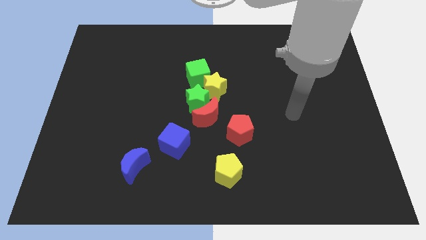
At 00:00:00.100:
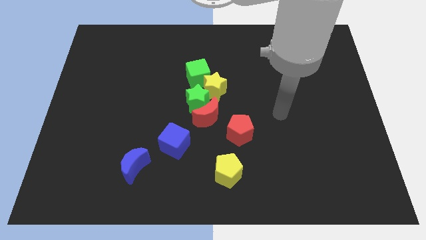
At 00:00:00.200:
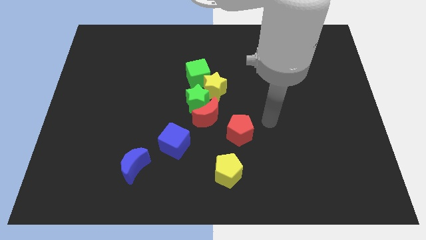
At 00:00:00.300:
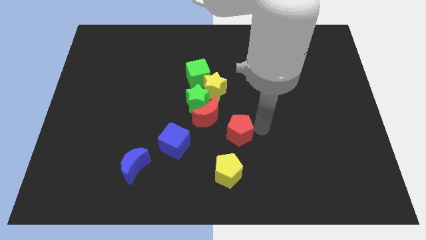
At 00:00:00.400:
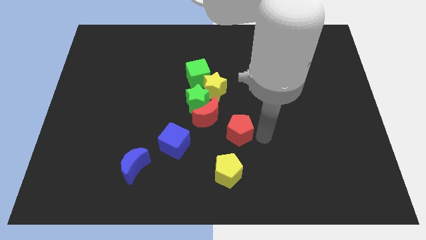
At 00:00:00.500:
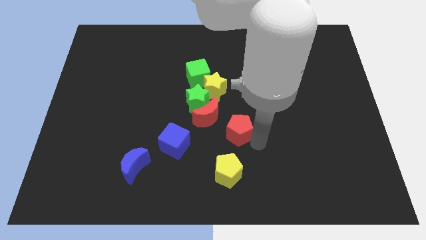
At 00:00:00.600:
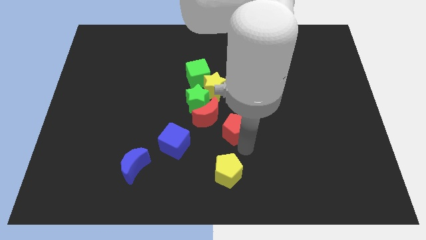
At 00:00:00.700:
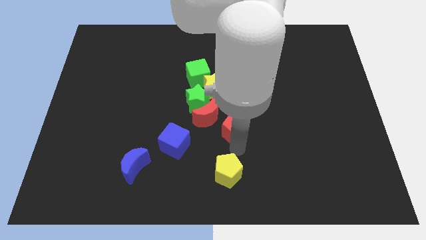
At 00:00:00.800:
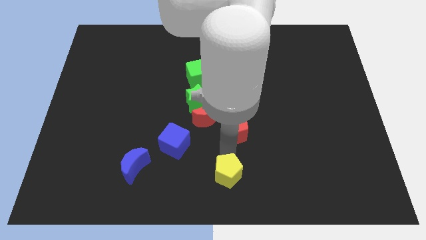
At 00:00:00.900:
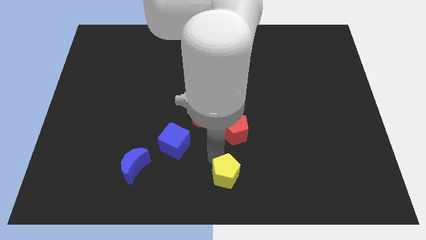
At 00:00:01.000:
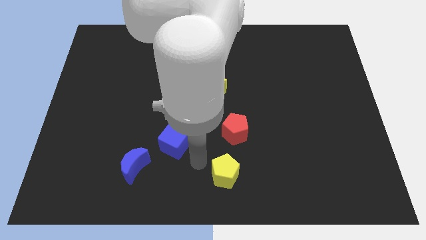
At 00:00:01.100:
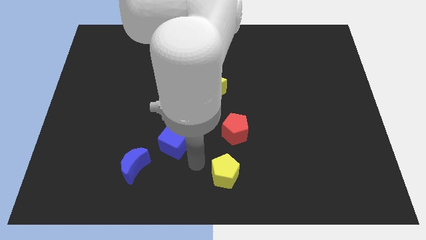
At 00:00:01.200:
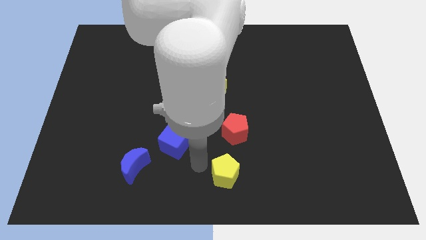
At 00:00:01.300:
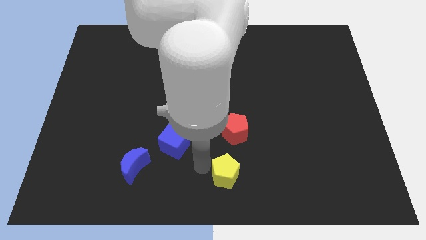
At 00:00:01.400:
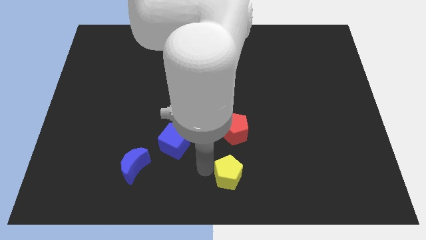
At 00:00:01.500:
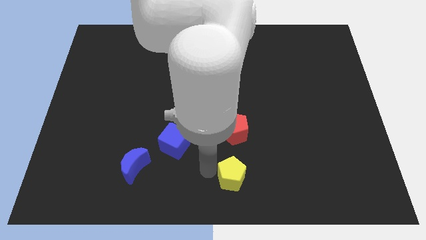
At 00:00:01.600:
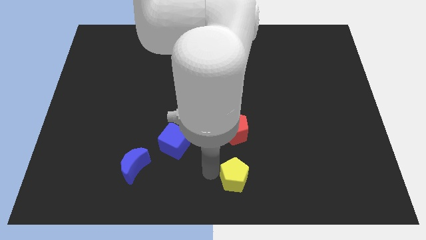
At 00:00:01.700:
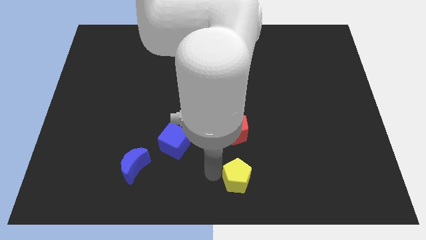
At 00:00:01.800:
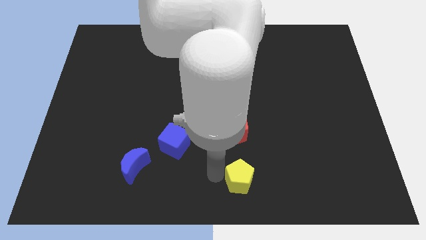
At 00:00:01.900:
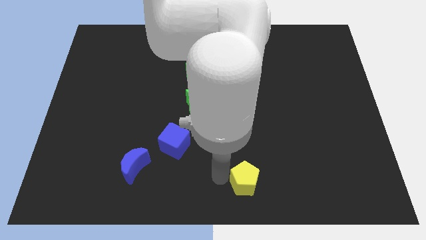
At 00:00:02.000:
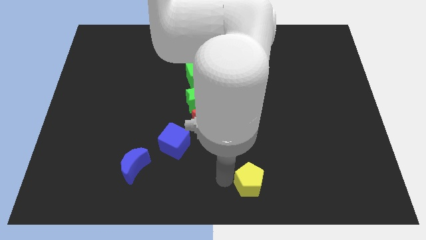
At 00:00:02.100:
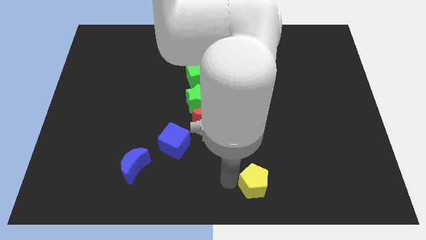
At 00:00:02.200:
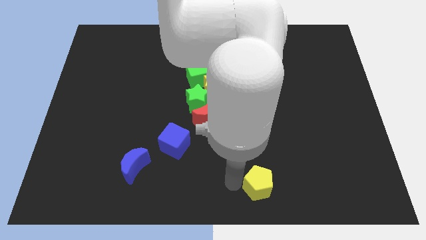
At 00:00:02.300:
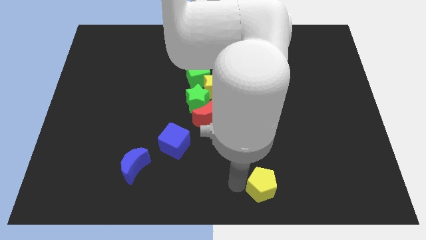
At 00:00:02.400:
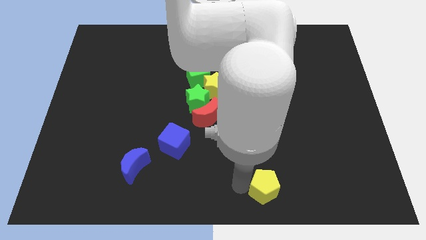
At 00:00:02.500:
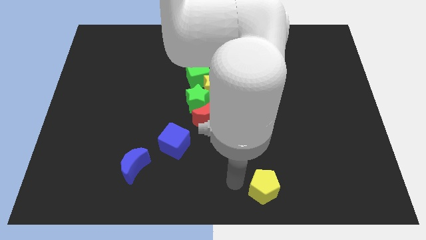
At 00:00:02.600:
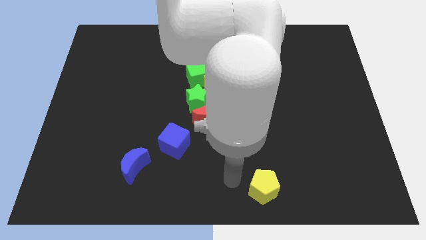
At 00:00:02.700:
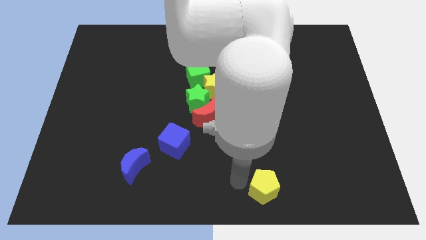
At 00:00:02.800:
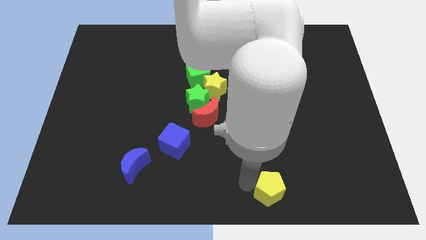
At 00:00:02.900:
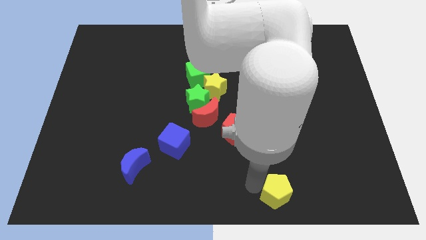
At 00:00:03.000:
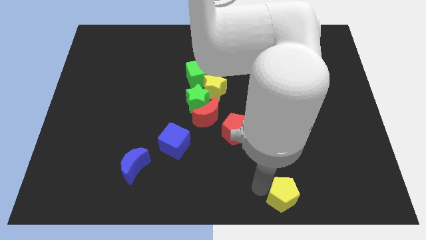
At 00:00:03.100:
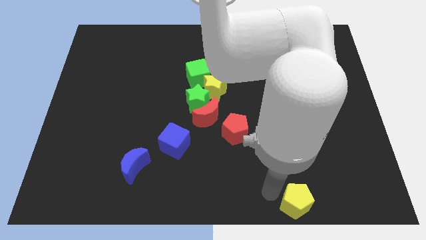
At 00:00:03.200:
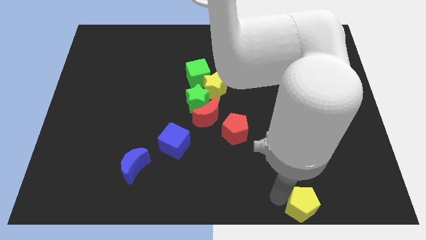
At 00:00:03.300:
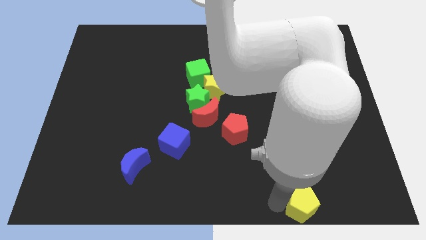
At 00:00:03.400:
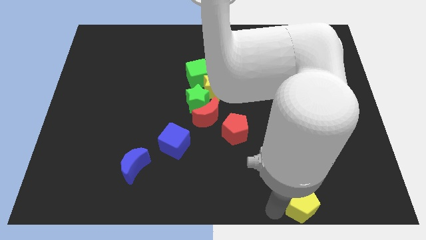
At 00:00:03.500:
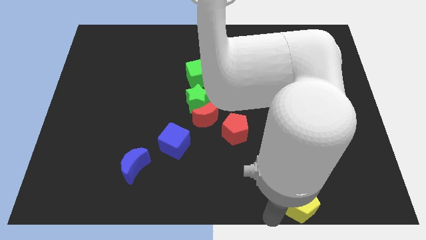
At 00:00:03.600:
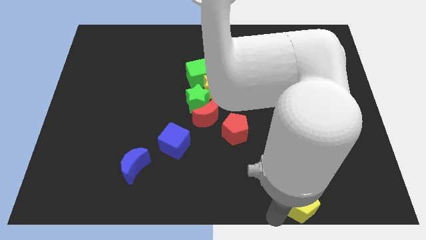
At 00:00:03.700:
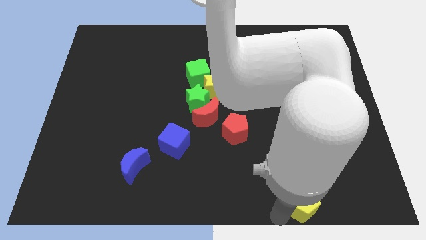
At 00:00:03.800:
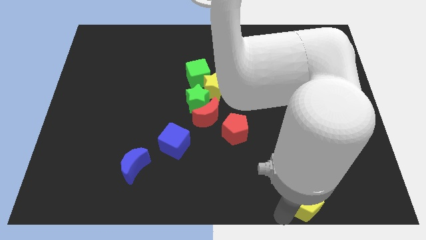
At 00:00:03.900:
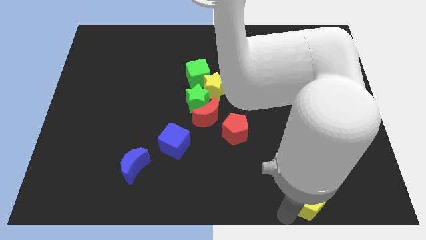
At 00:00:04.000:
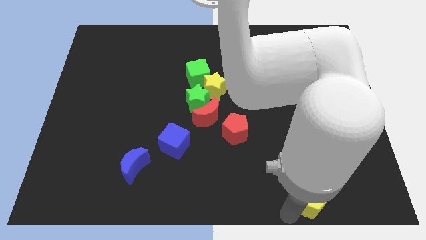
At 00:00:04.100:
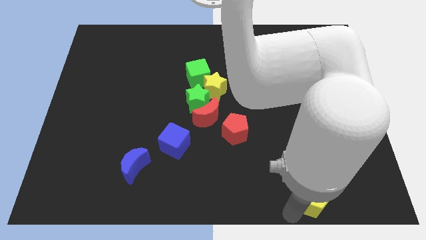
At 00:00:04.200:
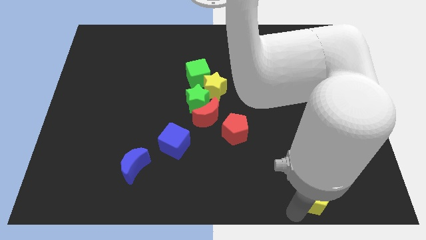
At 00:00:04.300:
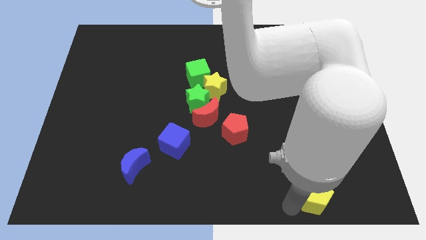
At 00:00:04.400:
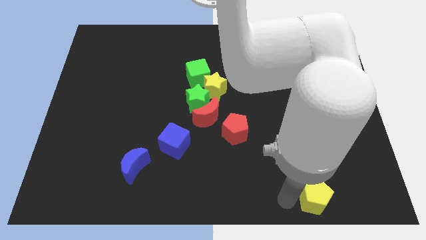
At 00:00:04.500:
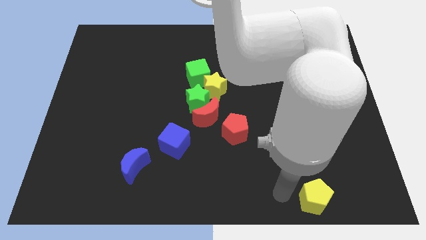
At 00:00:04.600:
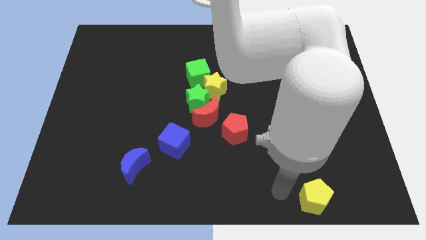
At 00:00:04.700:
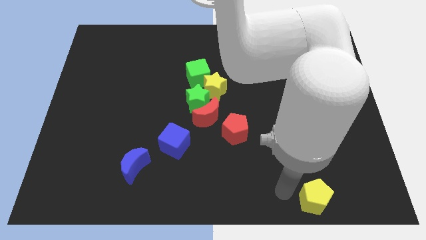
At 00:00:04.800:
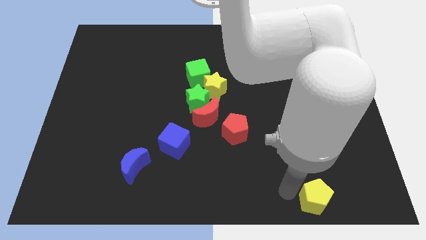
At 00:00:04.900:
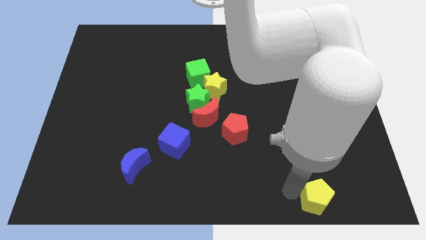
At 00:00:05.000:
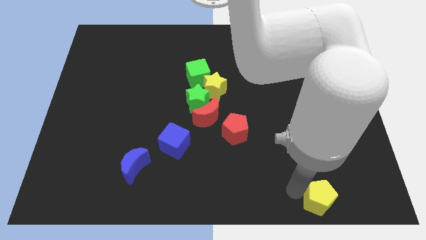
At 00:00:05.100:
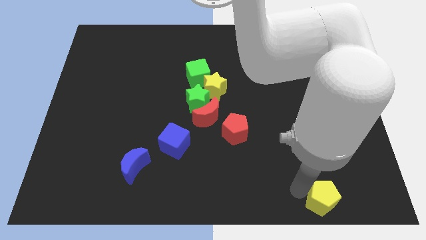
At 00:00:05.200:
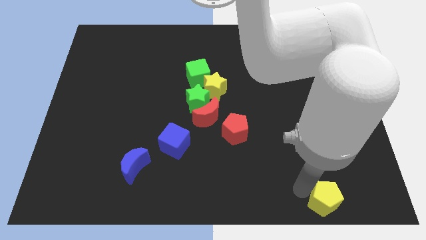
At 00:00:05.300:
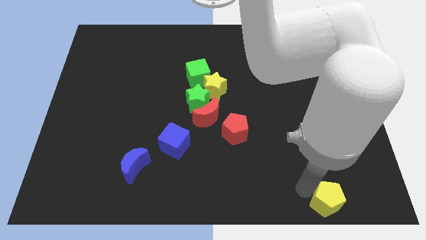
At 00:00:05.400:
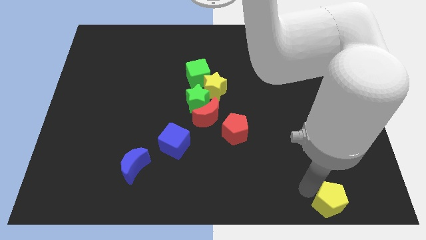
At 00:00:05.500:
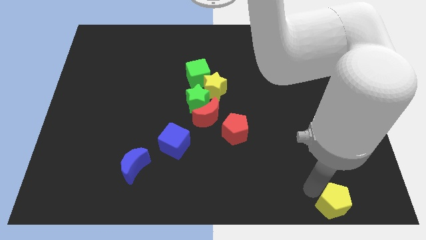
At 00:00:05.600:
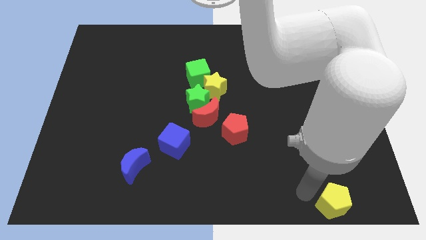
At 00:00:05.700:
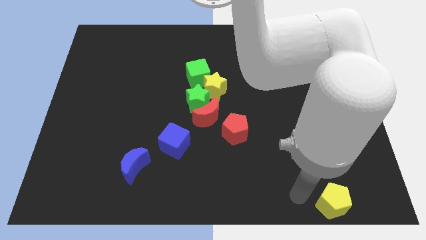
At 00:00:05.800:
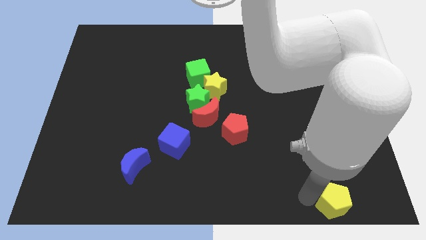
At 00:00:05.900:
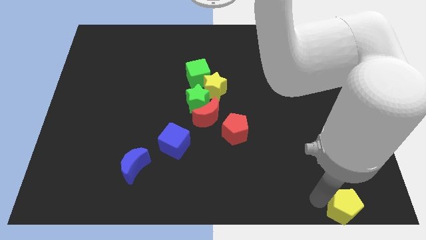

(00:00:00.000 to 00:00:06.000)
move the yellow pentagon to the lower right corner

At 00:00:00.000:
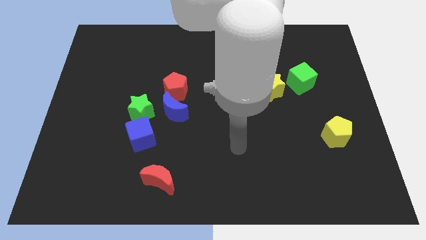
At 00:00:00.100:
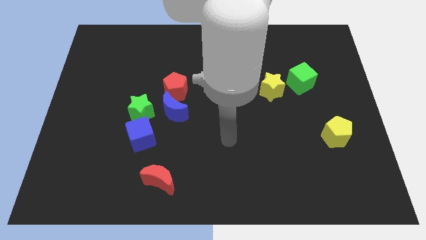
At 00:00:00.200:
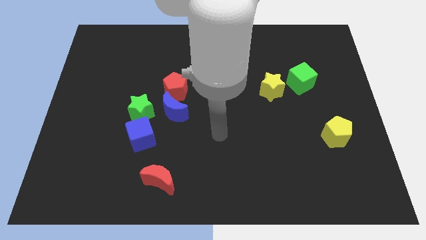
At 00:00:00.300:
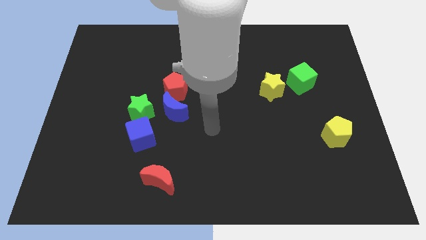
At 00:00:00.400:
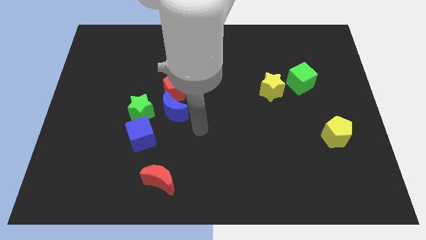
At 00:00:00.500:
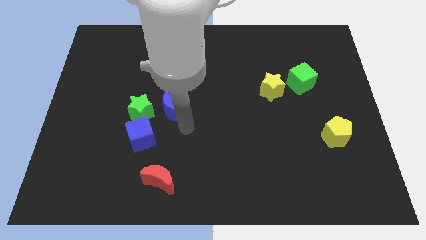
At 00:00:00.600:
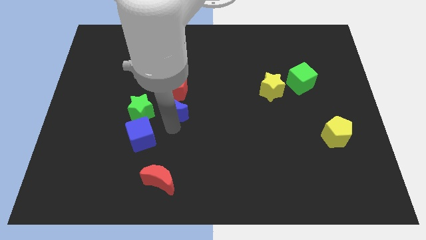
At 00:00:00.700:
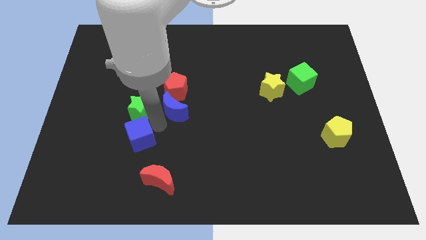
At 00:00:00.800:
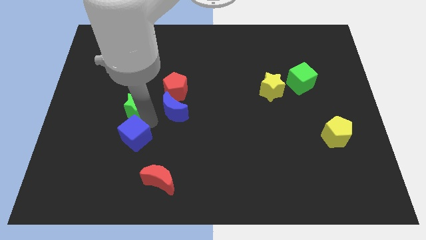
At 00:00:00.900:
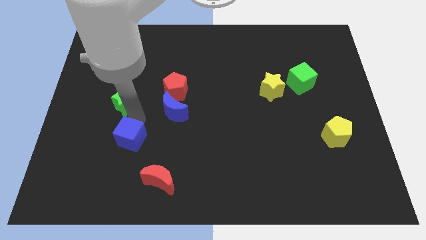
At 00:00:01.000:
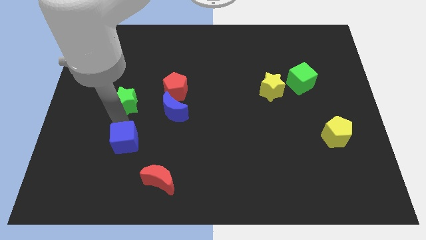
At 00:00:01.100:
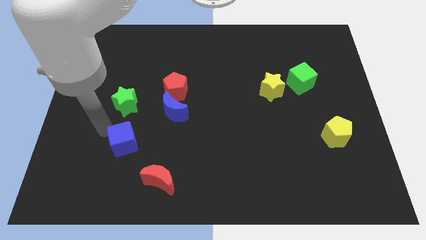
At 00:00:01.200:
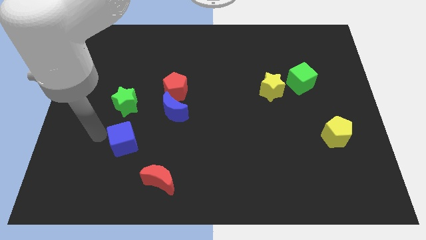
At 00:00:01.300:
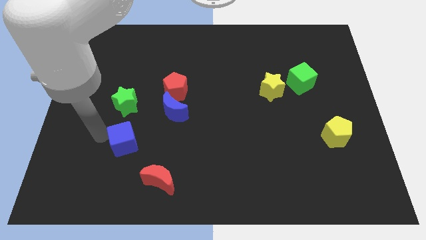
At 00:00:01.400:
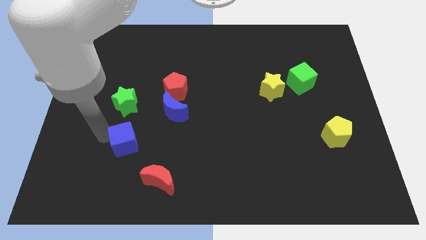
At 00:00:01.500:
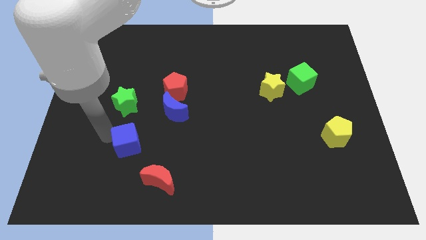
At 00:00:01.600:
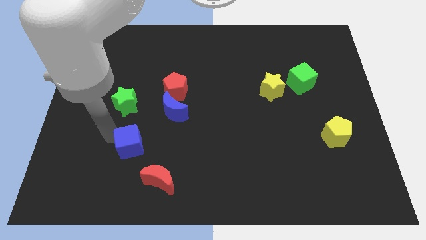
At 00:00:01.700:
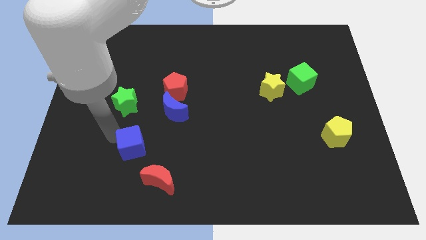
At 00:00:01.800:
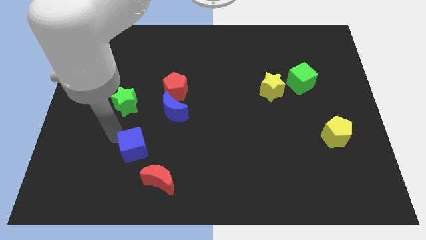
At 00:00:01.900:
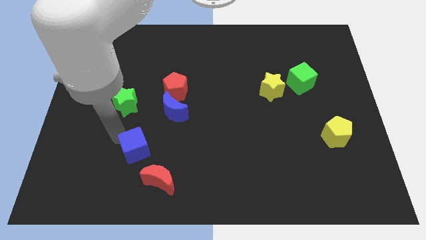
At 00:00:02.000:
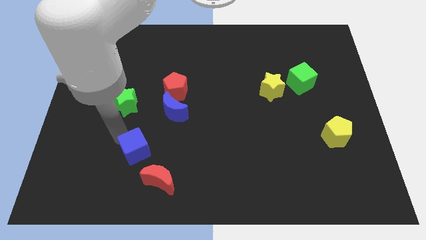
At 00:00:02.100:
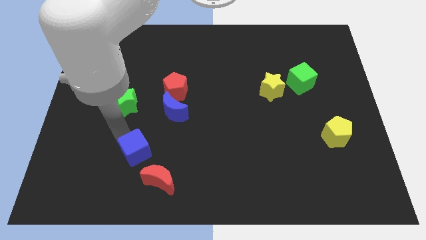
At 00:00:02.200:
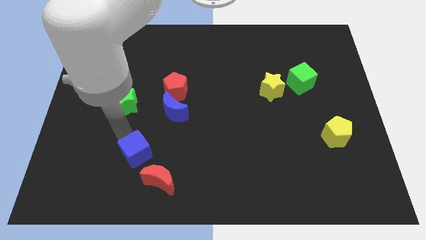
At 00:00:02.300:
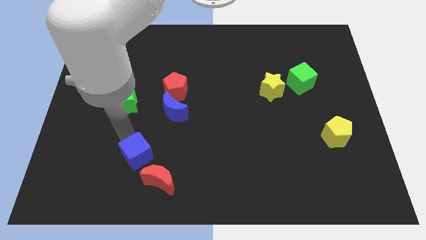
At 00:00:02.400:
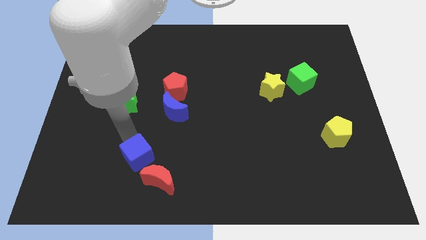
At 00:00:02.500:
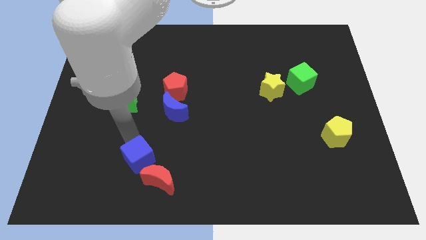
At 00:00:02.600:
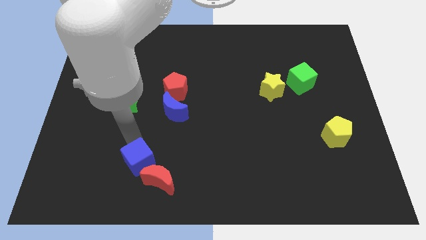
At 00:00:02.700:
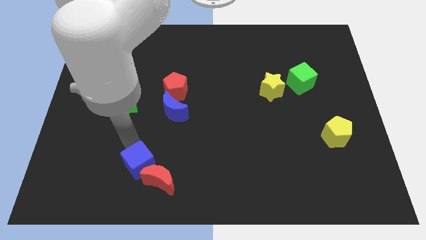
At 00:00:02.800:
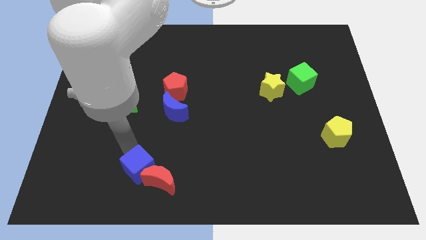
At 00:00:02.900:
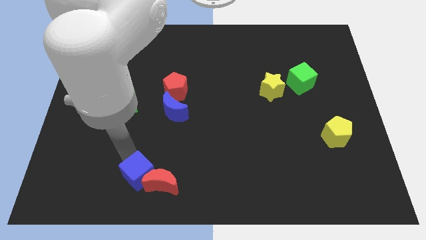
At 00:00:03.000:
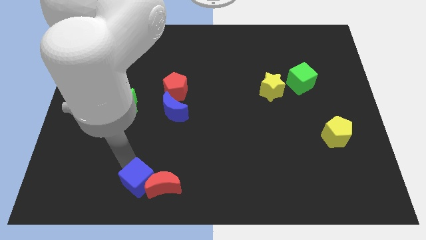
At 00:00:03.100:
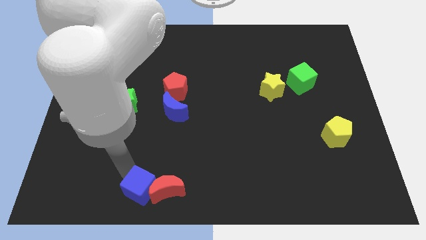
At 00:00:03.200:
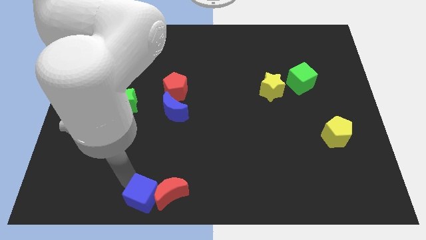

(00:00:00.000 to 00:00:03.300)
push the blue cube to the bottom
